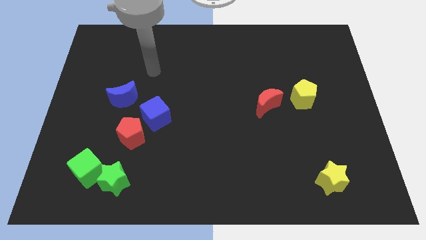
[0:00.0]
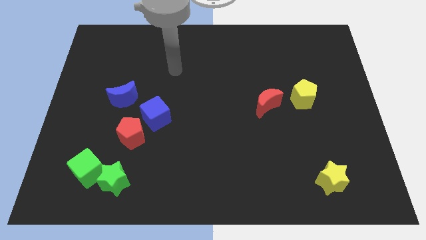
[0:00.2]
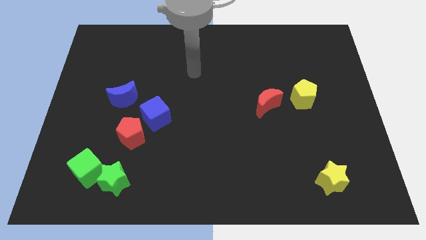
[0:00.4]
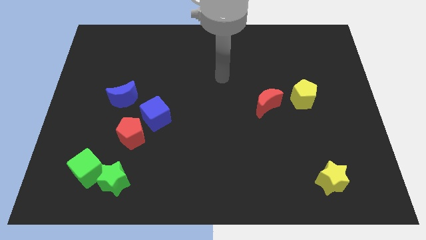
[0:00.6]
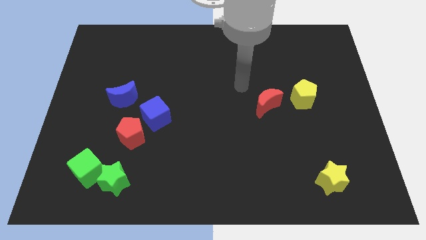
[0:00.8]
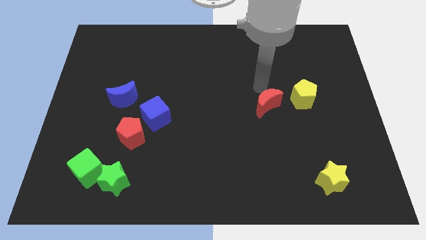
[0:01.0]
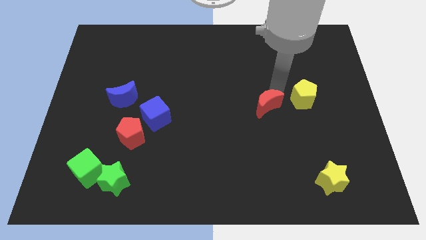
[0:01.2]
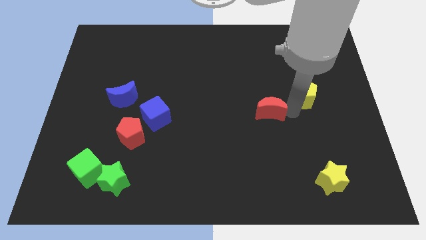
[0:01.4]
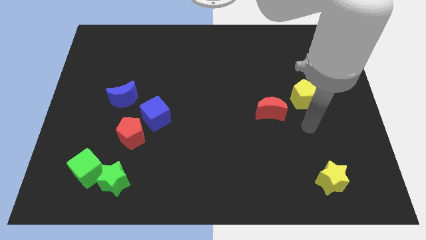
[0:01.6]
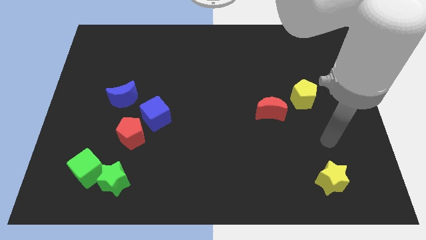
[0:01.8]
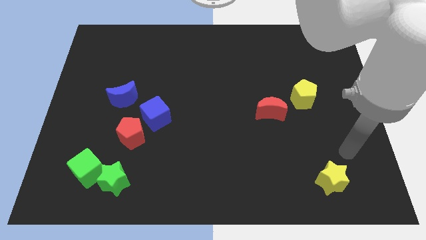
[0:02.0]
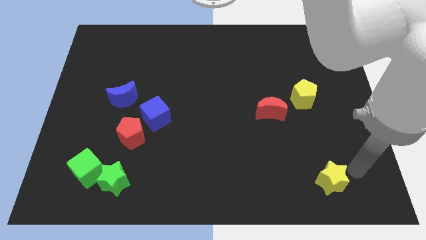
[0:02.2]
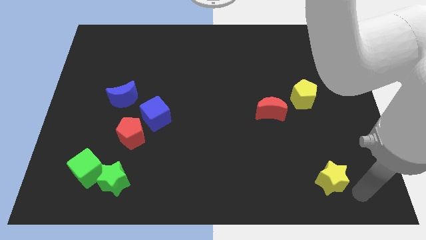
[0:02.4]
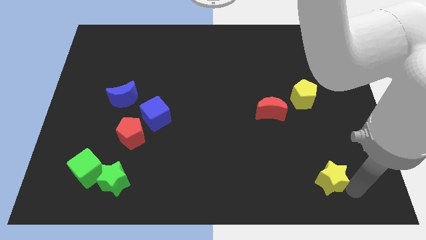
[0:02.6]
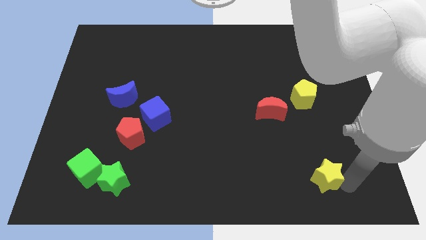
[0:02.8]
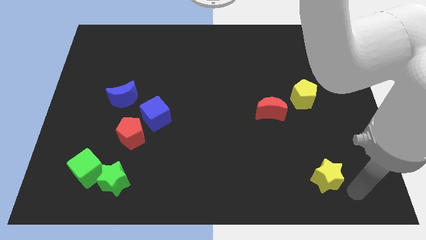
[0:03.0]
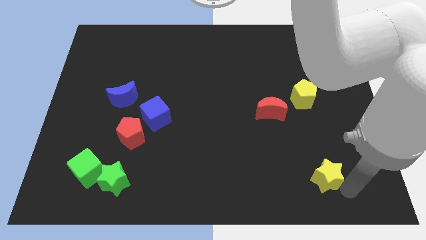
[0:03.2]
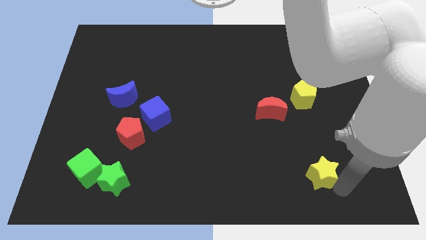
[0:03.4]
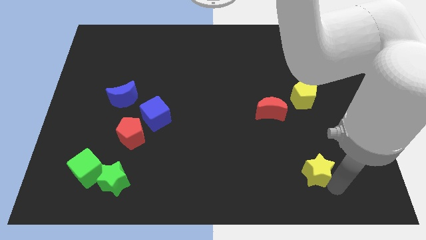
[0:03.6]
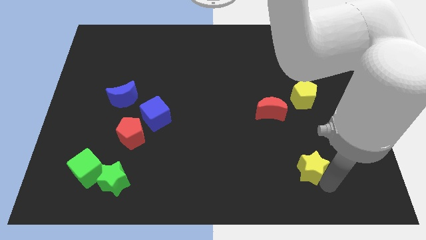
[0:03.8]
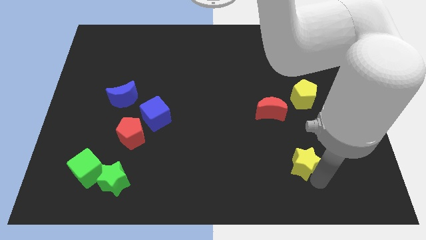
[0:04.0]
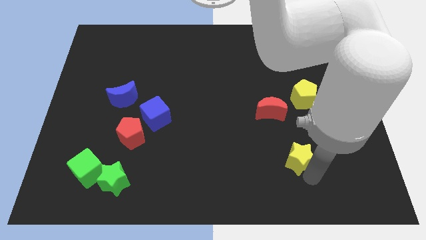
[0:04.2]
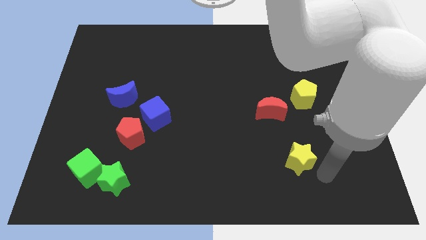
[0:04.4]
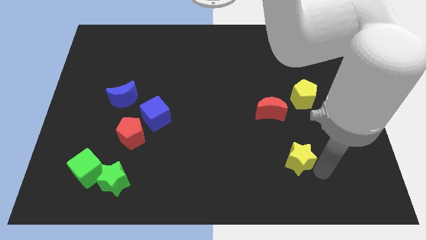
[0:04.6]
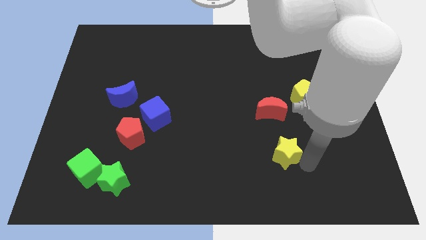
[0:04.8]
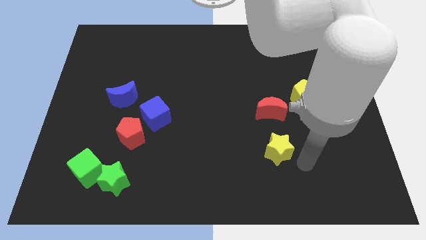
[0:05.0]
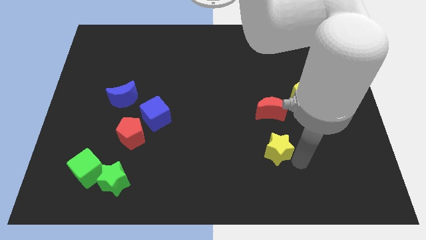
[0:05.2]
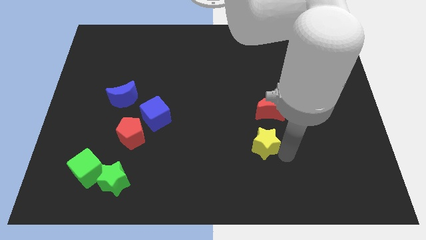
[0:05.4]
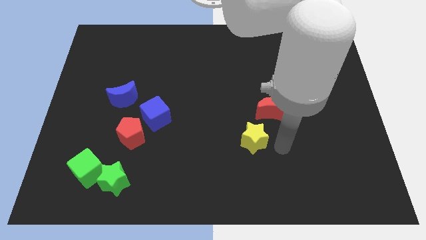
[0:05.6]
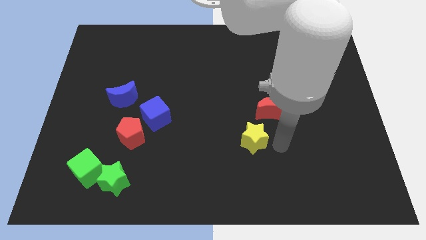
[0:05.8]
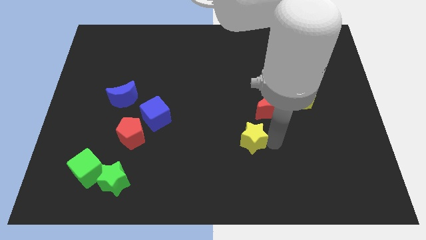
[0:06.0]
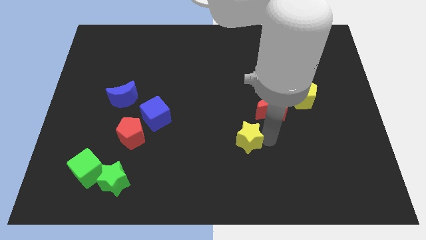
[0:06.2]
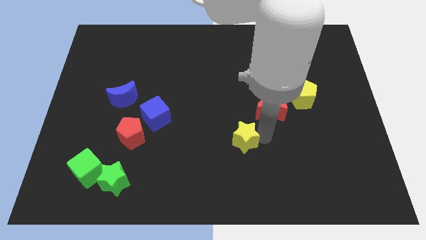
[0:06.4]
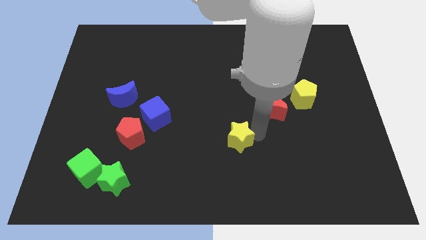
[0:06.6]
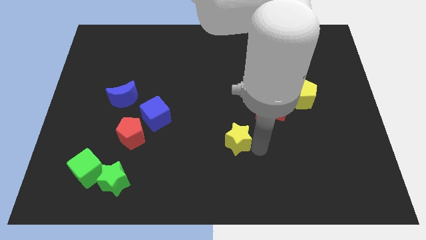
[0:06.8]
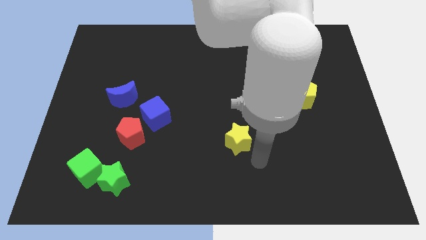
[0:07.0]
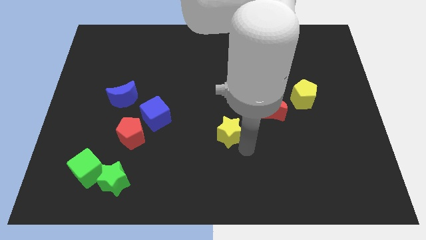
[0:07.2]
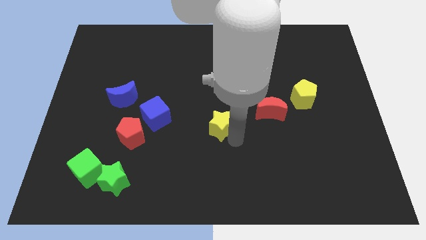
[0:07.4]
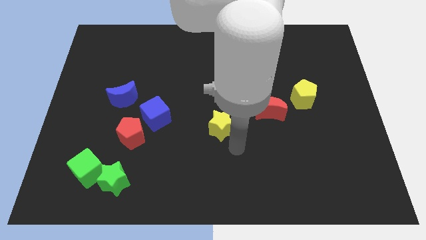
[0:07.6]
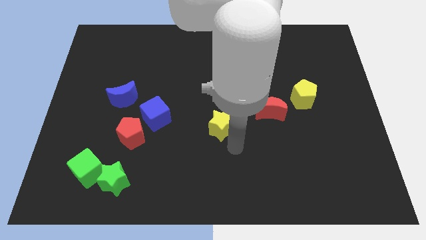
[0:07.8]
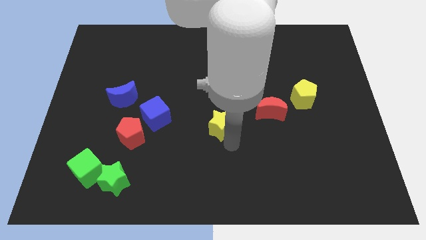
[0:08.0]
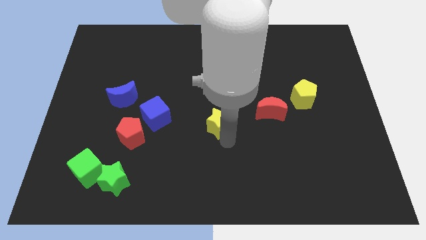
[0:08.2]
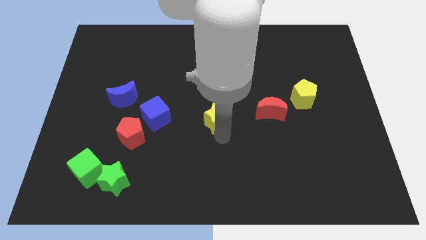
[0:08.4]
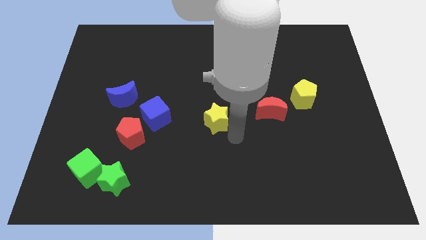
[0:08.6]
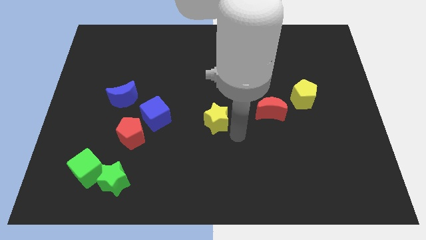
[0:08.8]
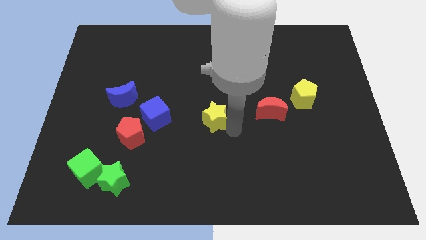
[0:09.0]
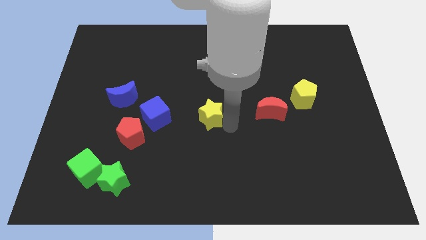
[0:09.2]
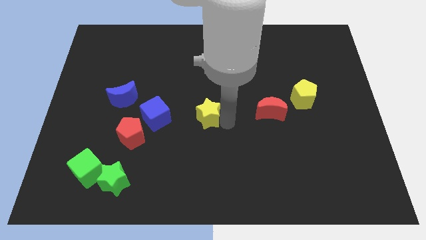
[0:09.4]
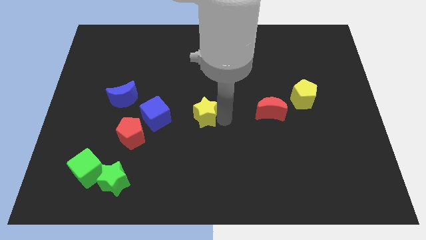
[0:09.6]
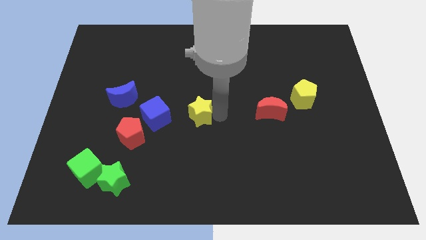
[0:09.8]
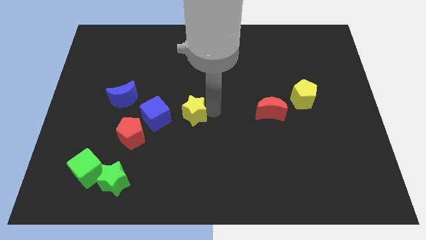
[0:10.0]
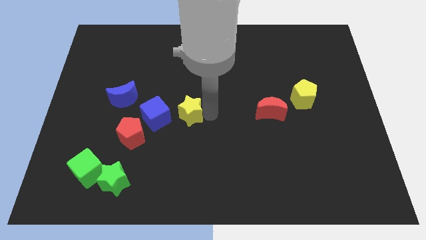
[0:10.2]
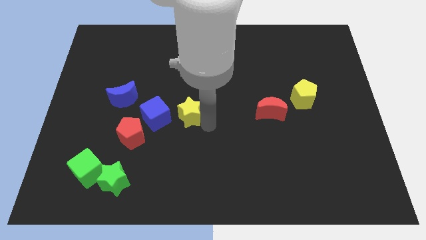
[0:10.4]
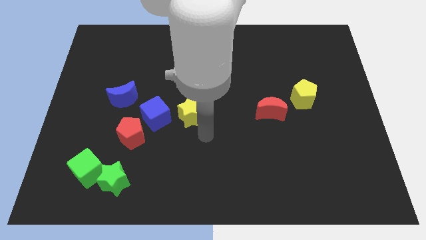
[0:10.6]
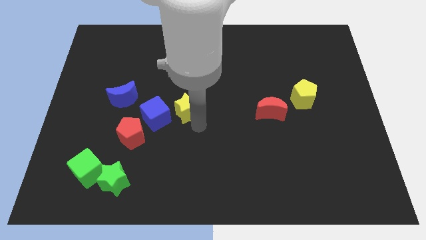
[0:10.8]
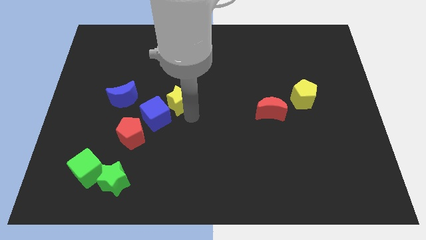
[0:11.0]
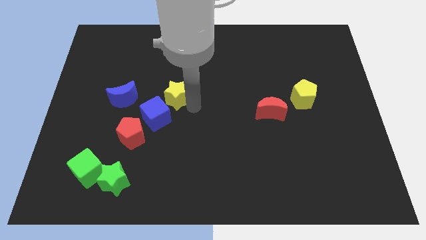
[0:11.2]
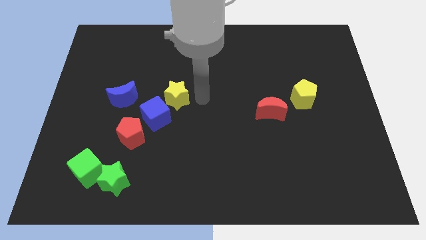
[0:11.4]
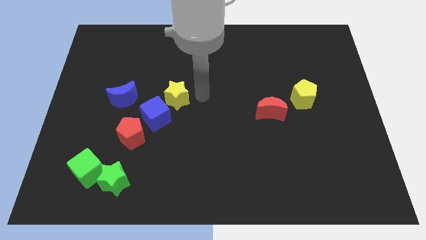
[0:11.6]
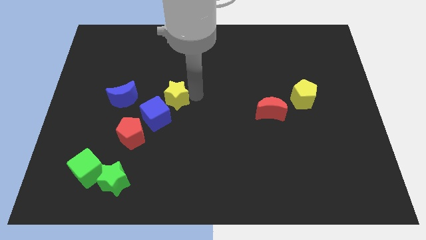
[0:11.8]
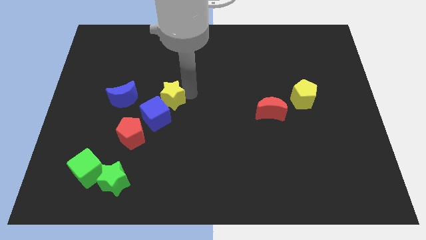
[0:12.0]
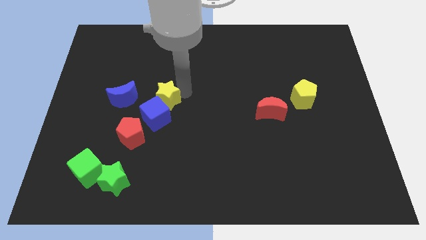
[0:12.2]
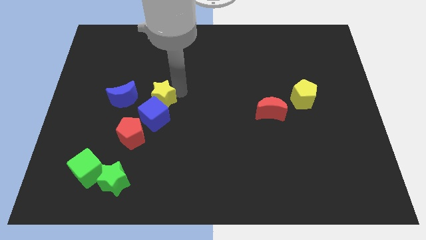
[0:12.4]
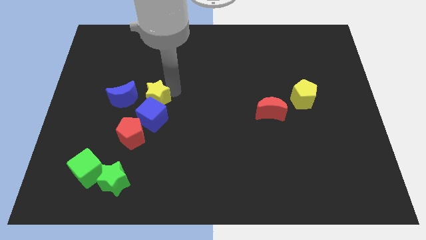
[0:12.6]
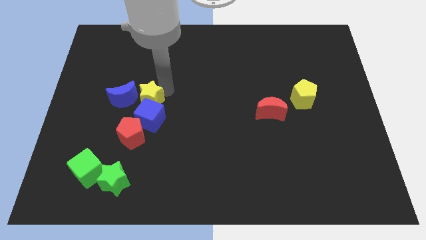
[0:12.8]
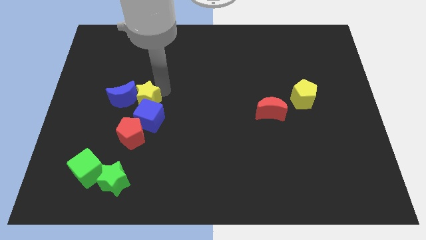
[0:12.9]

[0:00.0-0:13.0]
put the yellow star to the blue moon
